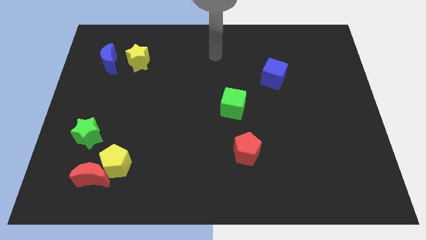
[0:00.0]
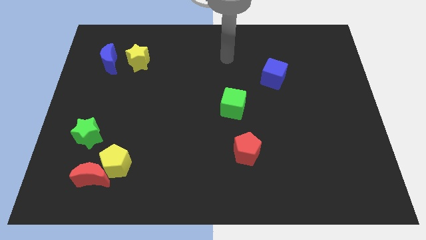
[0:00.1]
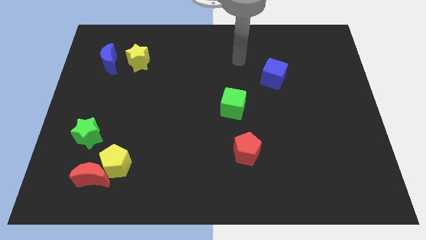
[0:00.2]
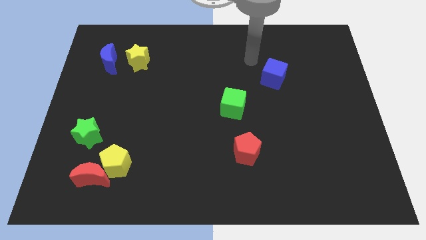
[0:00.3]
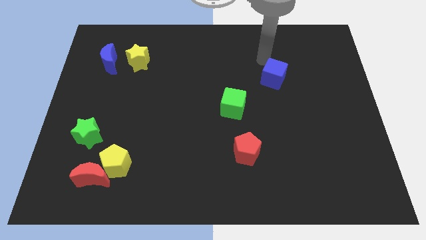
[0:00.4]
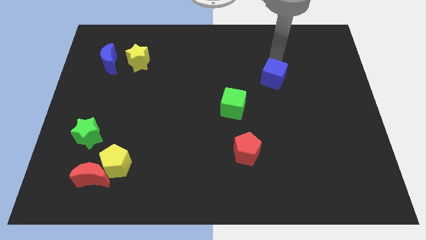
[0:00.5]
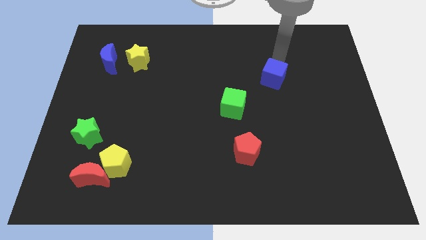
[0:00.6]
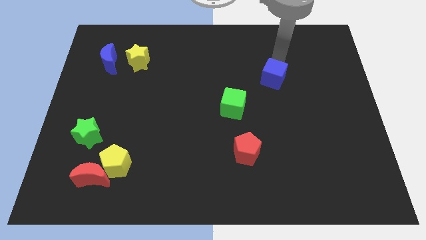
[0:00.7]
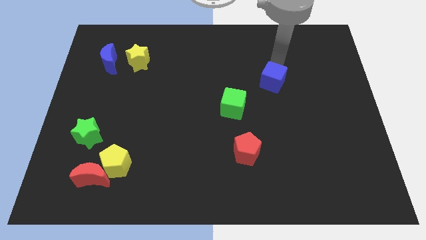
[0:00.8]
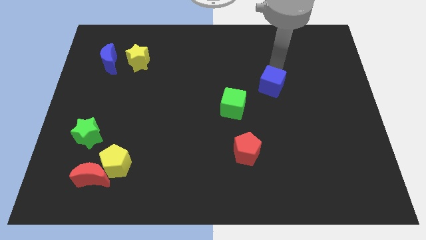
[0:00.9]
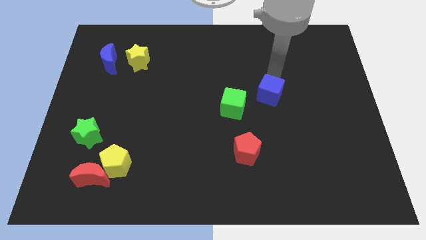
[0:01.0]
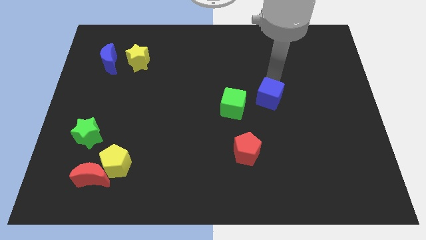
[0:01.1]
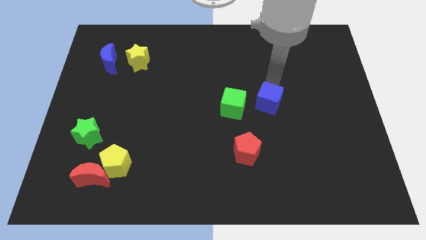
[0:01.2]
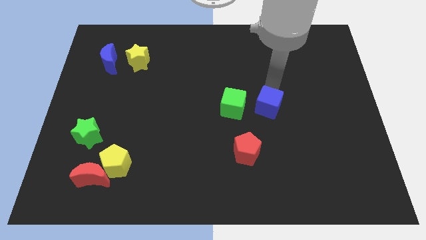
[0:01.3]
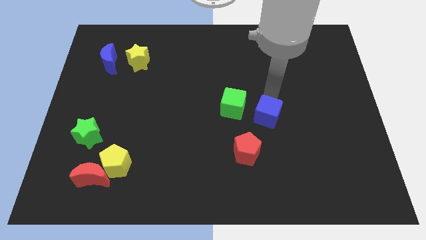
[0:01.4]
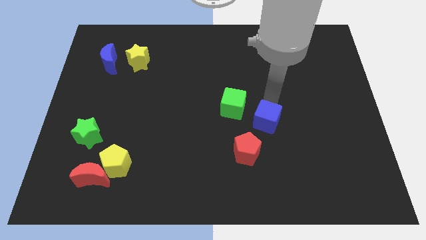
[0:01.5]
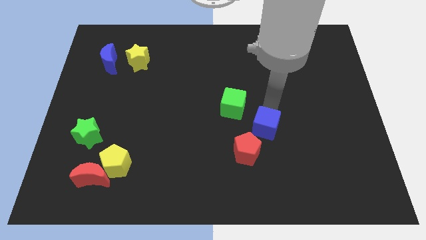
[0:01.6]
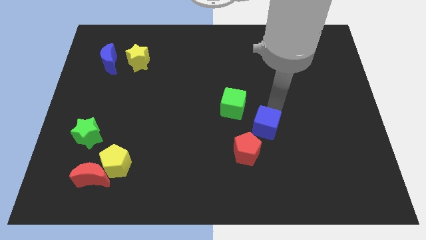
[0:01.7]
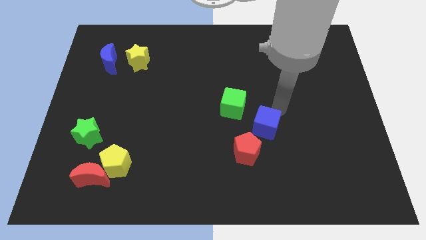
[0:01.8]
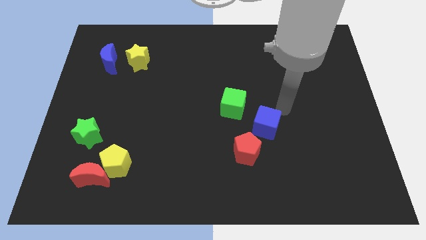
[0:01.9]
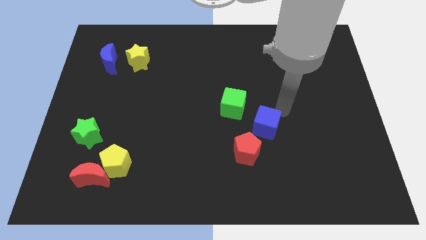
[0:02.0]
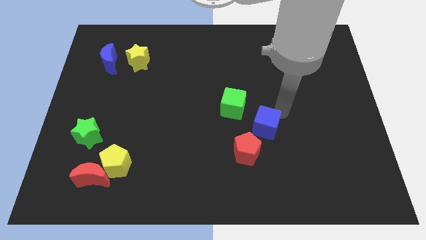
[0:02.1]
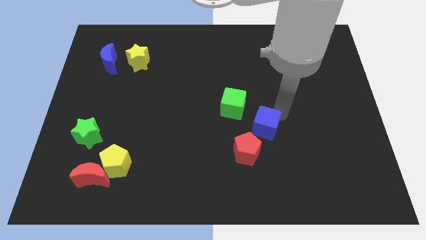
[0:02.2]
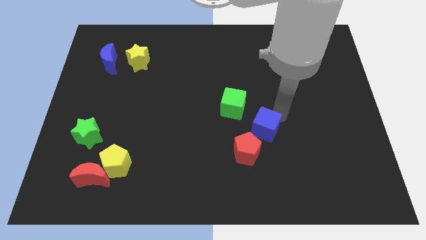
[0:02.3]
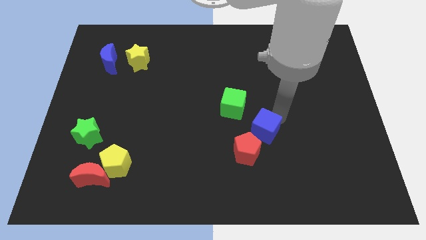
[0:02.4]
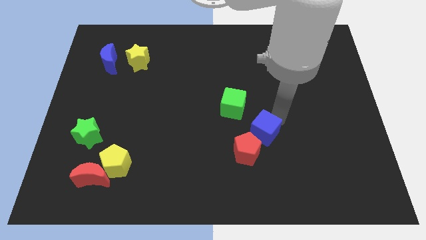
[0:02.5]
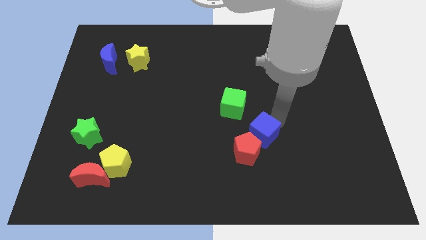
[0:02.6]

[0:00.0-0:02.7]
move the blue cube towards the red pentagon

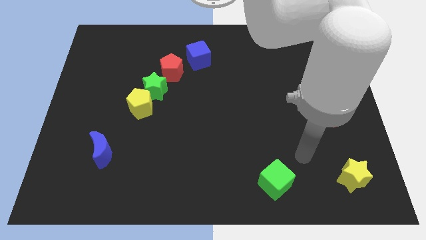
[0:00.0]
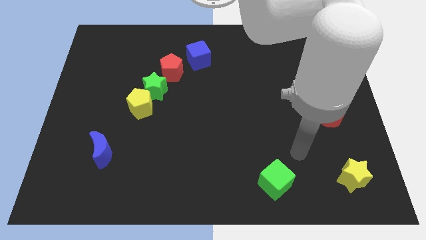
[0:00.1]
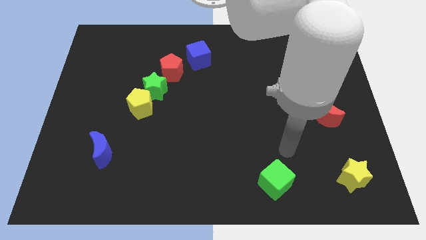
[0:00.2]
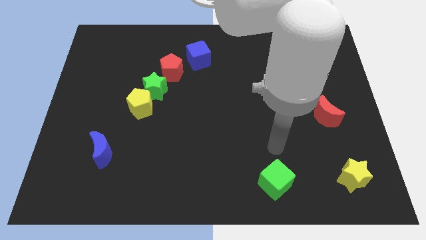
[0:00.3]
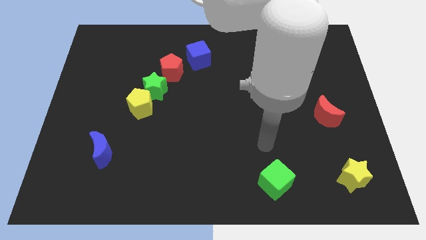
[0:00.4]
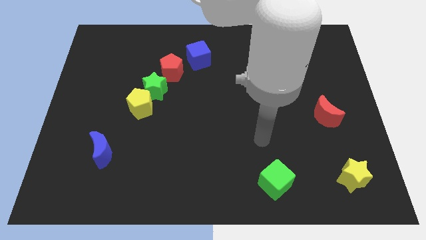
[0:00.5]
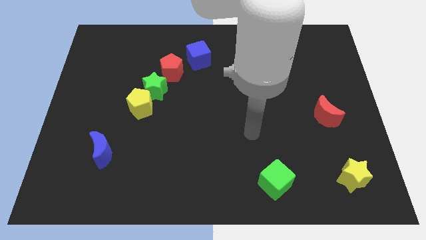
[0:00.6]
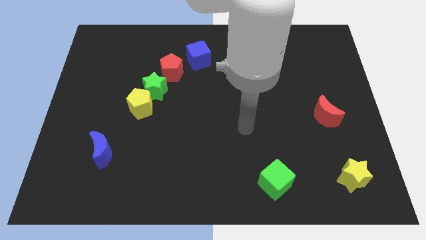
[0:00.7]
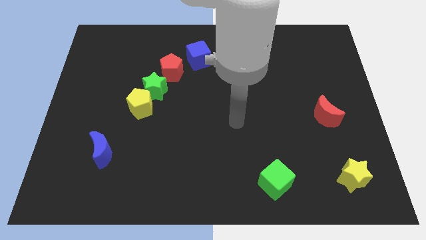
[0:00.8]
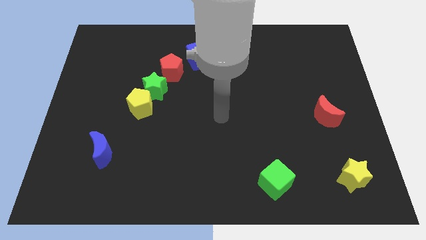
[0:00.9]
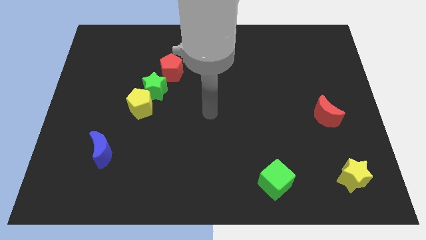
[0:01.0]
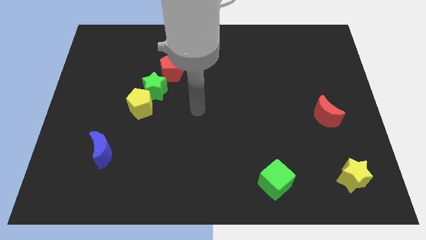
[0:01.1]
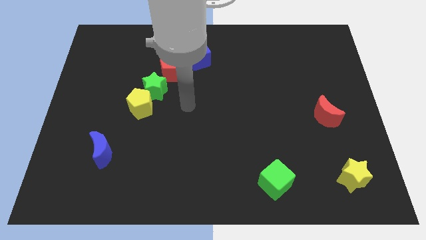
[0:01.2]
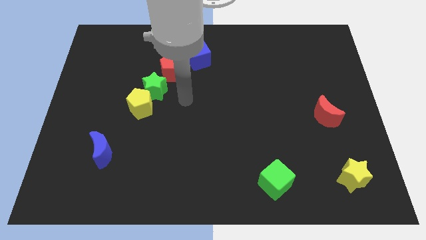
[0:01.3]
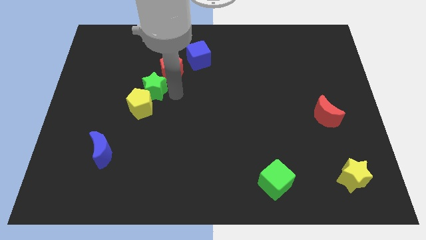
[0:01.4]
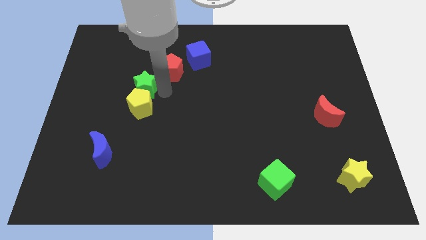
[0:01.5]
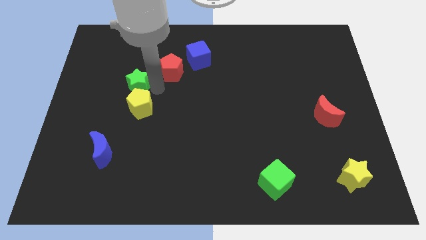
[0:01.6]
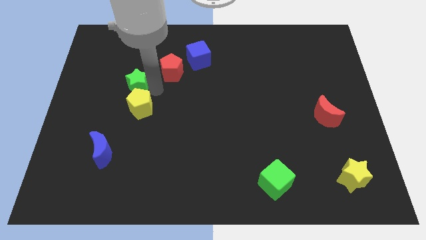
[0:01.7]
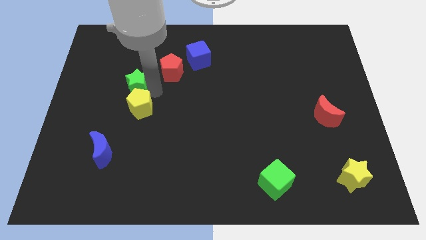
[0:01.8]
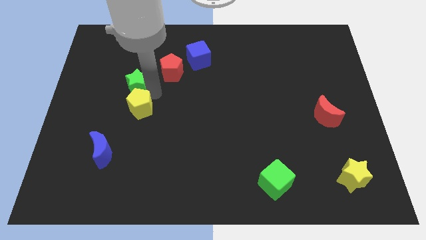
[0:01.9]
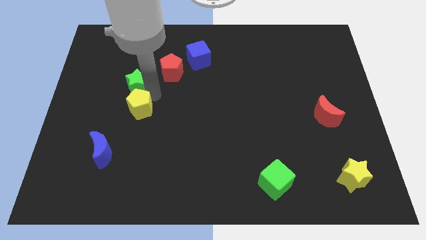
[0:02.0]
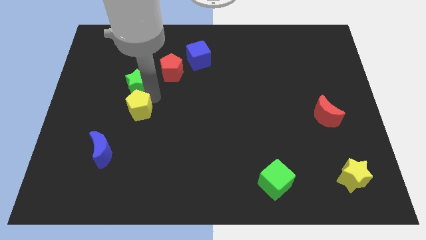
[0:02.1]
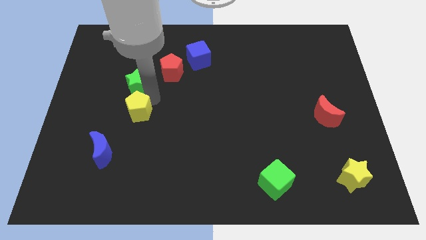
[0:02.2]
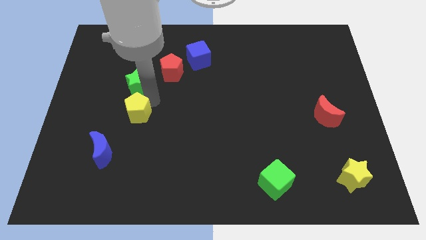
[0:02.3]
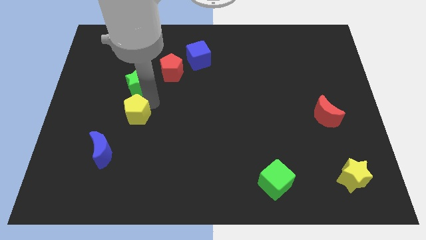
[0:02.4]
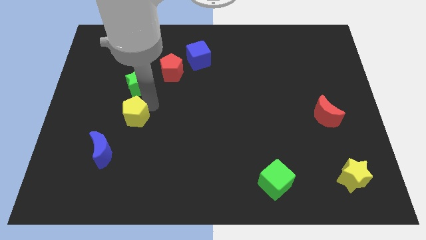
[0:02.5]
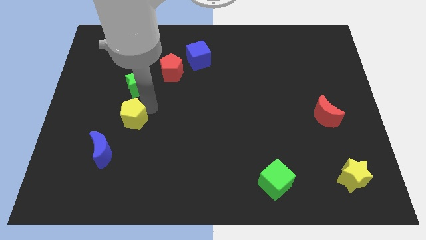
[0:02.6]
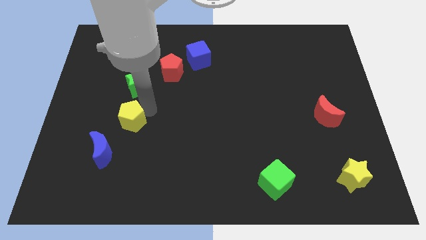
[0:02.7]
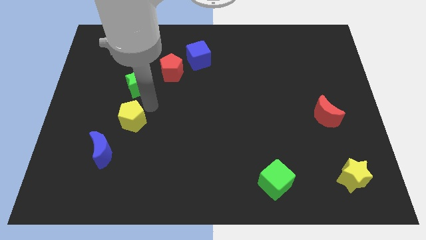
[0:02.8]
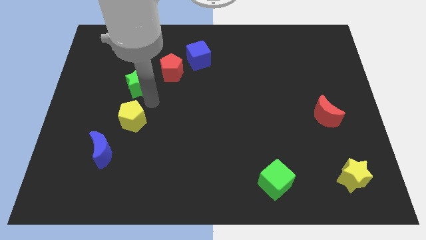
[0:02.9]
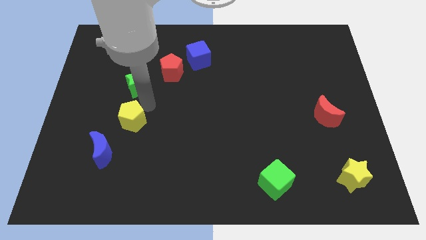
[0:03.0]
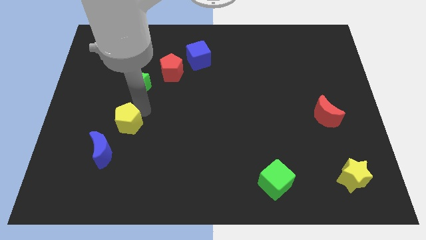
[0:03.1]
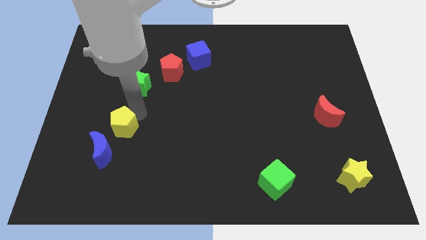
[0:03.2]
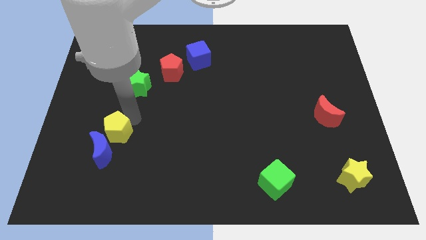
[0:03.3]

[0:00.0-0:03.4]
push the yellow pentagon close to the blue moon

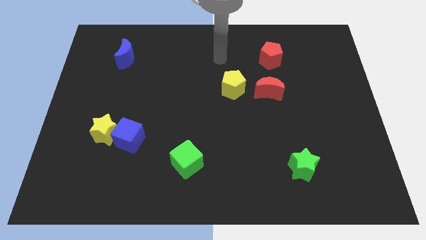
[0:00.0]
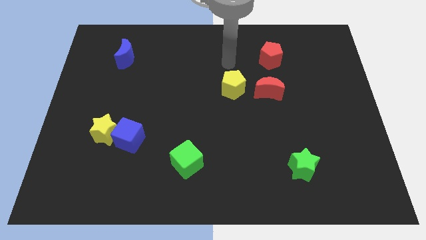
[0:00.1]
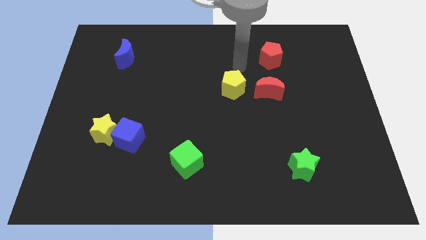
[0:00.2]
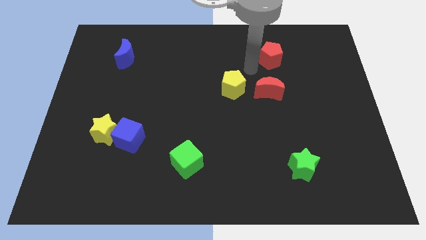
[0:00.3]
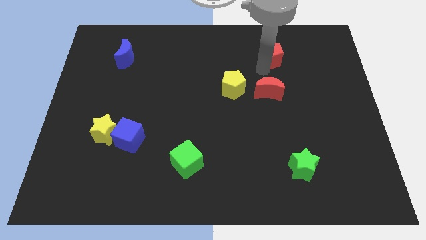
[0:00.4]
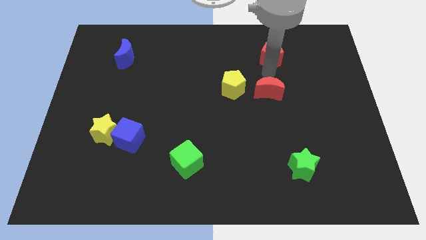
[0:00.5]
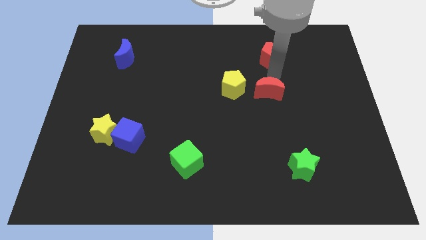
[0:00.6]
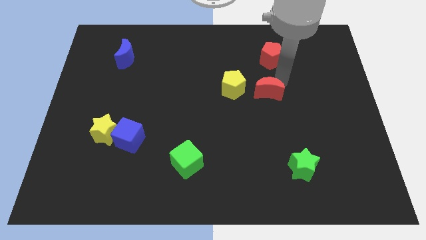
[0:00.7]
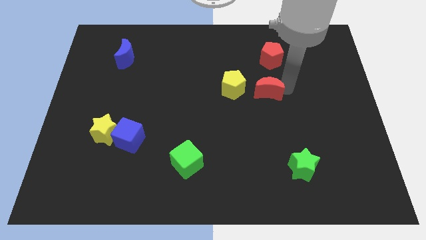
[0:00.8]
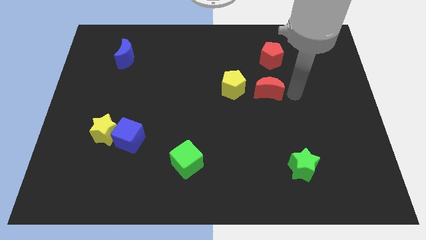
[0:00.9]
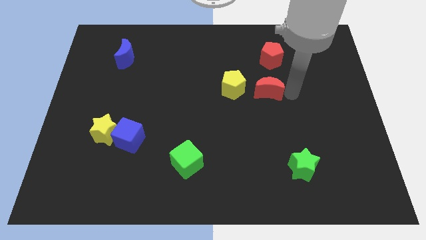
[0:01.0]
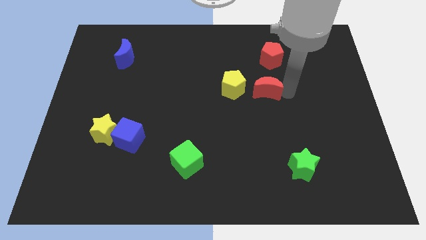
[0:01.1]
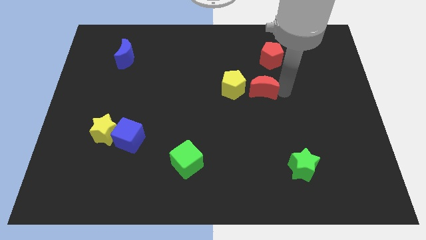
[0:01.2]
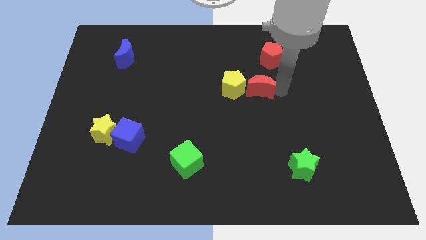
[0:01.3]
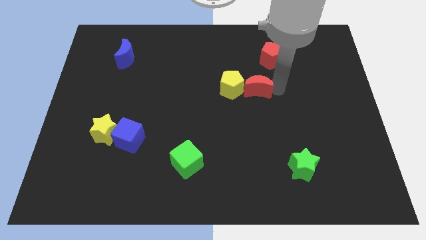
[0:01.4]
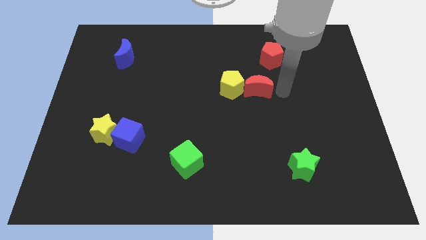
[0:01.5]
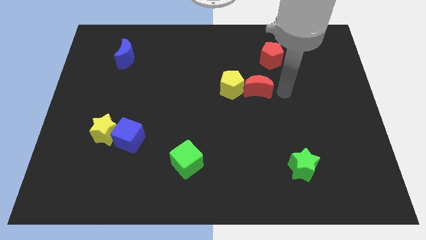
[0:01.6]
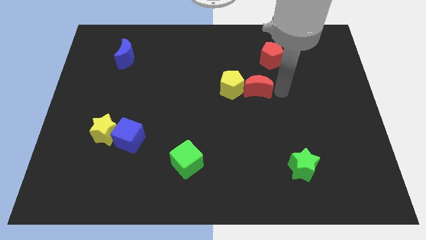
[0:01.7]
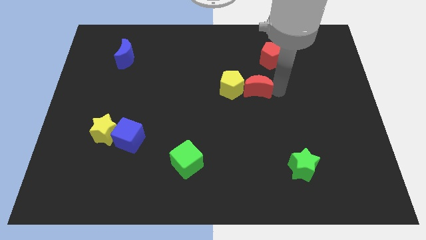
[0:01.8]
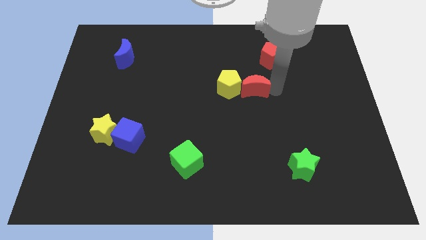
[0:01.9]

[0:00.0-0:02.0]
slide the red moon towards the yellow pentagon

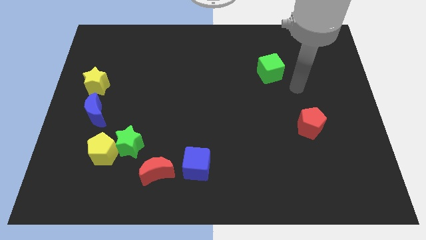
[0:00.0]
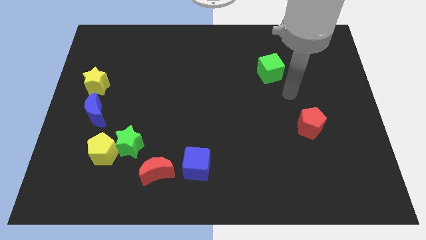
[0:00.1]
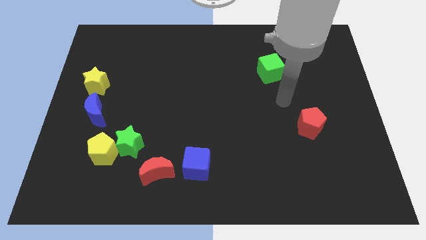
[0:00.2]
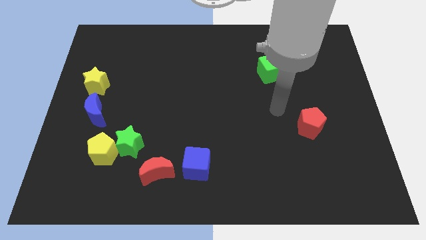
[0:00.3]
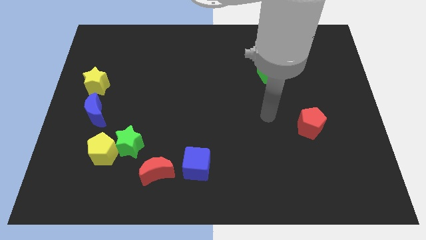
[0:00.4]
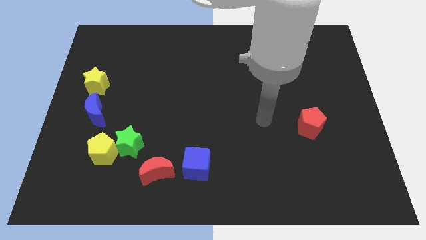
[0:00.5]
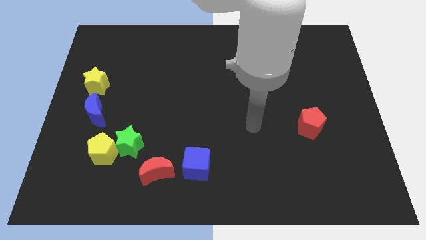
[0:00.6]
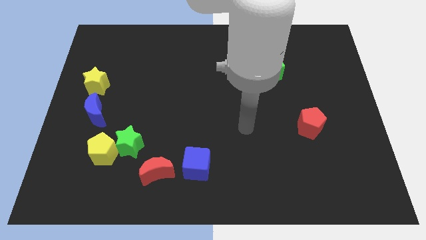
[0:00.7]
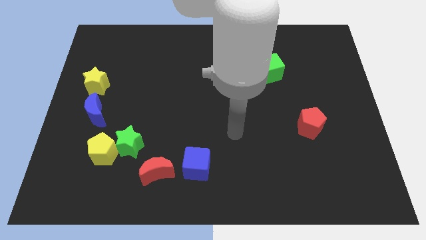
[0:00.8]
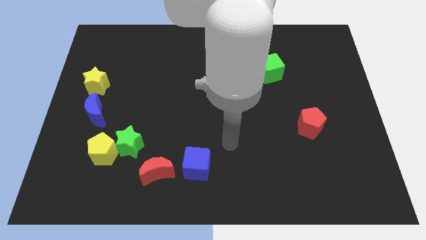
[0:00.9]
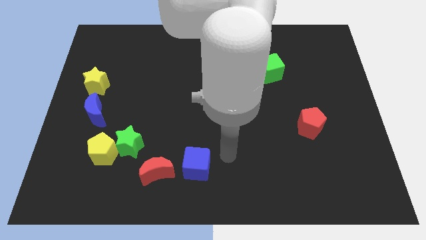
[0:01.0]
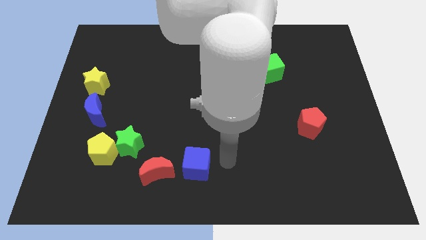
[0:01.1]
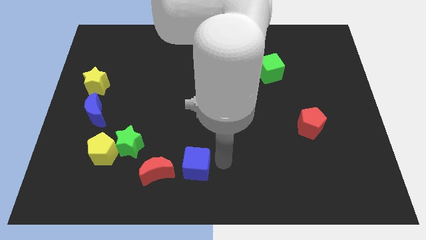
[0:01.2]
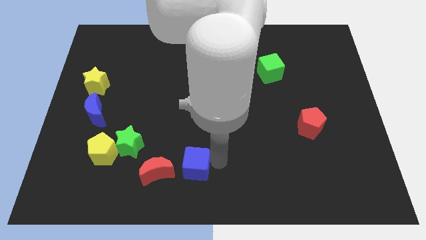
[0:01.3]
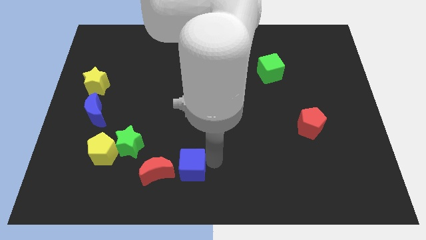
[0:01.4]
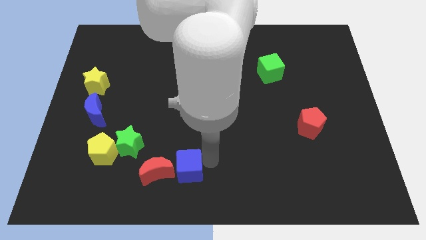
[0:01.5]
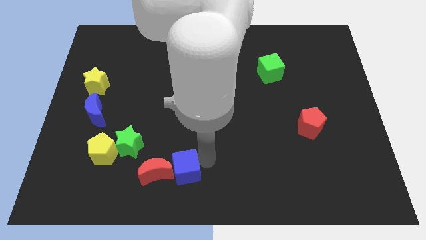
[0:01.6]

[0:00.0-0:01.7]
put the blue cube close to the red moon
